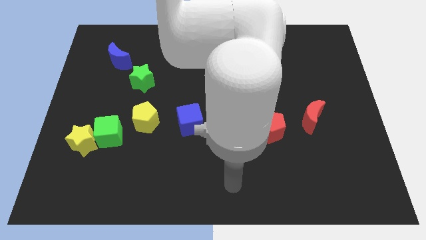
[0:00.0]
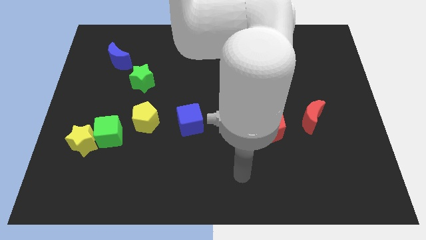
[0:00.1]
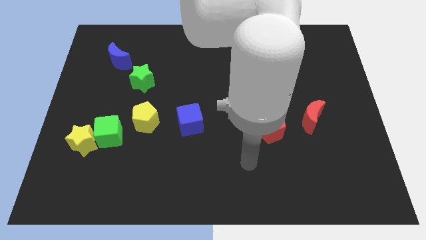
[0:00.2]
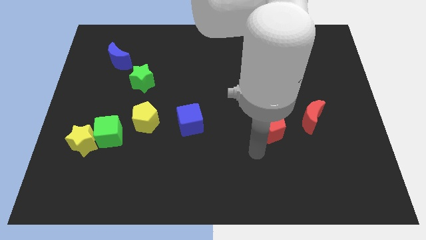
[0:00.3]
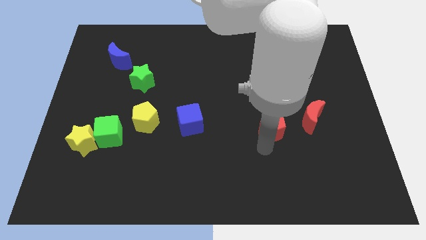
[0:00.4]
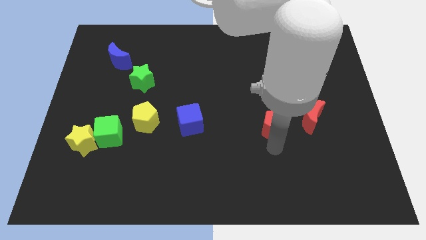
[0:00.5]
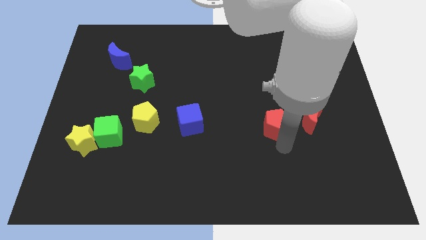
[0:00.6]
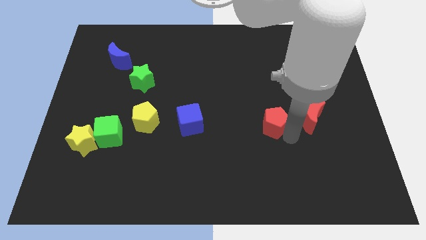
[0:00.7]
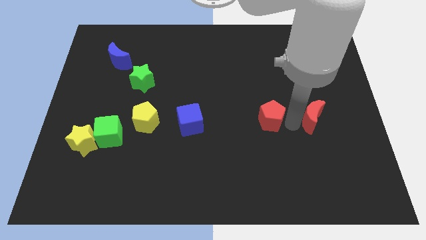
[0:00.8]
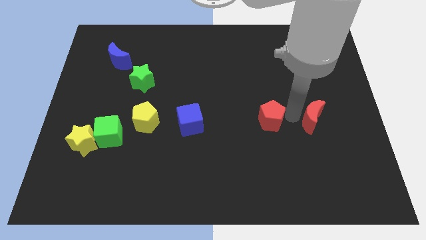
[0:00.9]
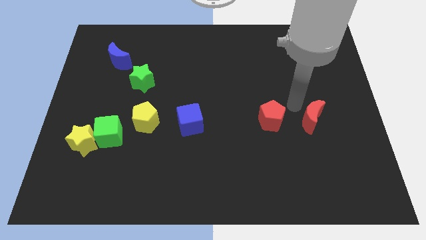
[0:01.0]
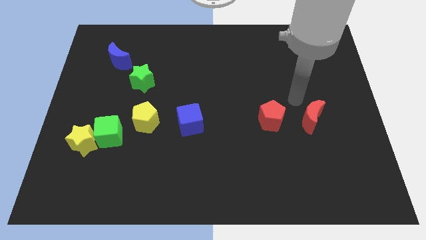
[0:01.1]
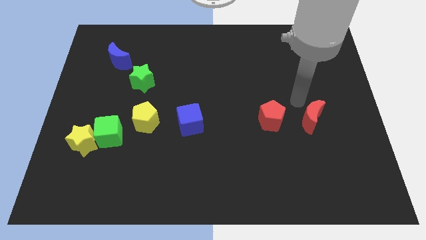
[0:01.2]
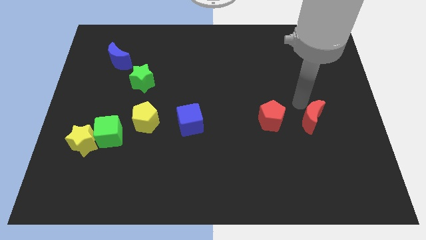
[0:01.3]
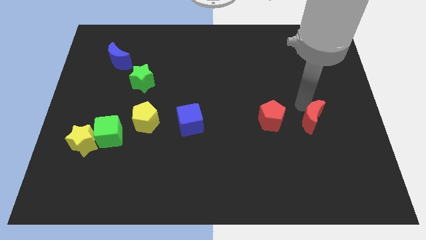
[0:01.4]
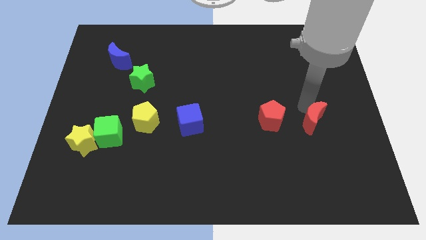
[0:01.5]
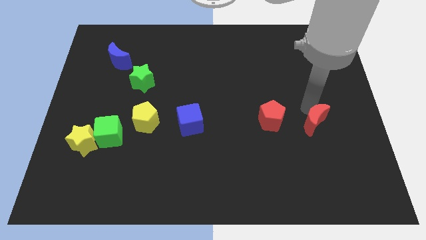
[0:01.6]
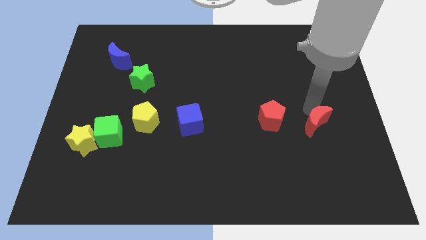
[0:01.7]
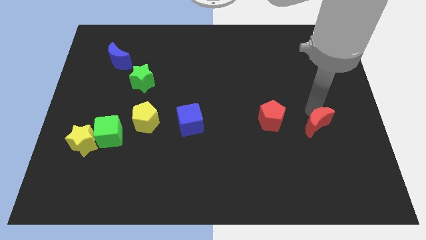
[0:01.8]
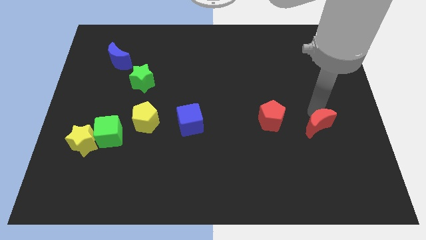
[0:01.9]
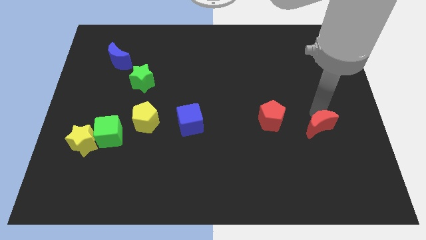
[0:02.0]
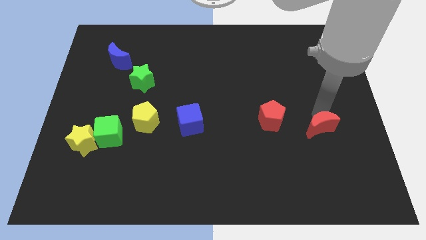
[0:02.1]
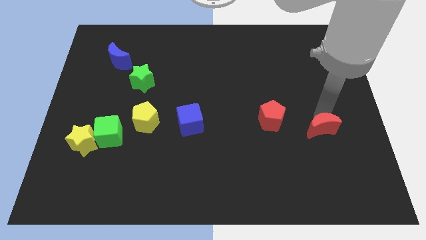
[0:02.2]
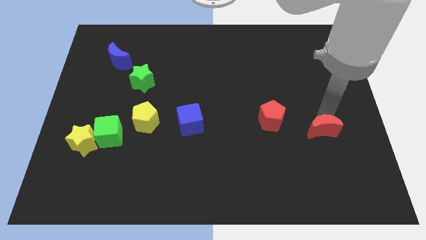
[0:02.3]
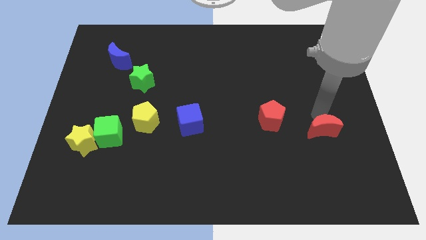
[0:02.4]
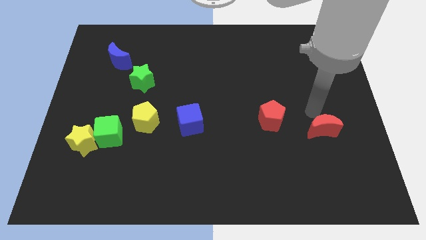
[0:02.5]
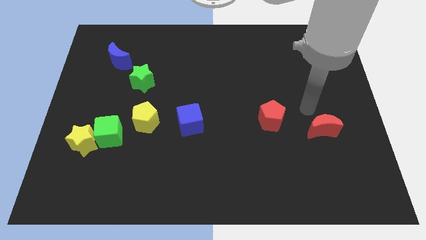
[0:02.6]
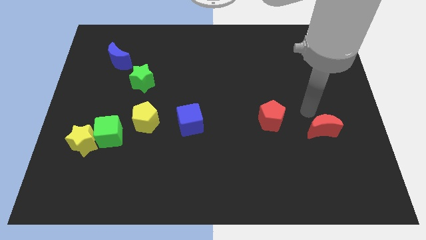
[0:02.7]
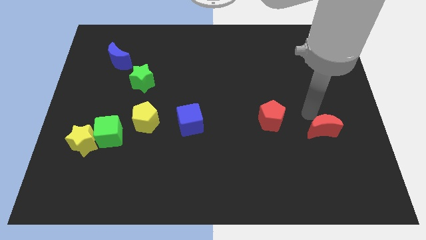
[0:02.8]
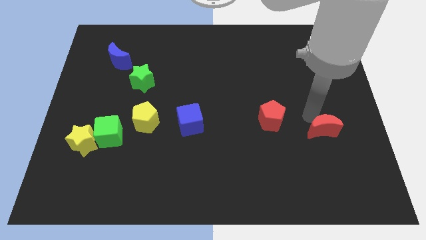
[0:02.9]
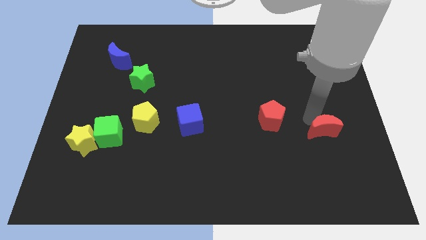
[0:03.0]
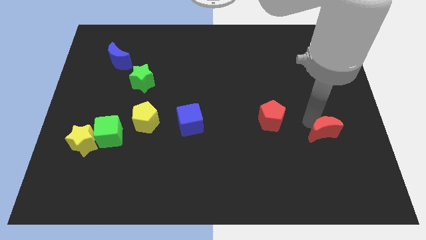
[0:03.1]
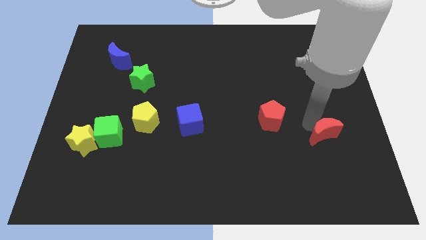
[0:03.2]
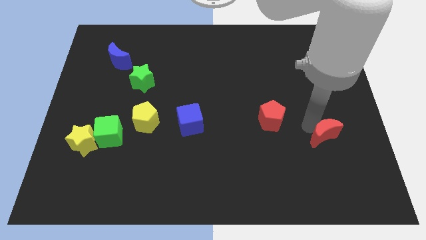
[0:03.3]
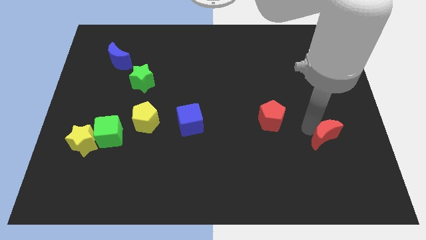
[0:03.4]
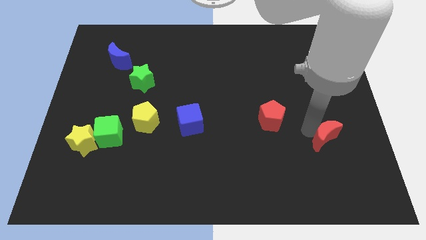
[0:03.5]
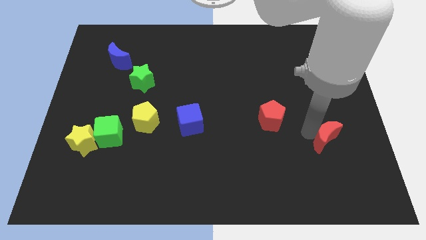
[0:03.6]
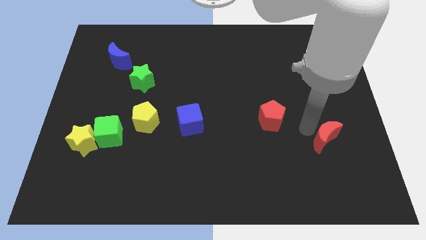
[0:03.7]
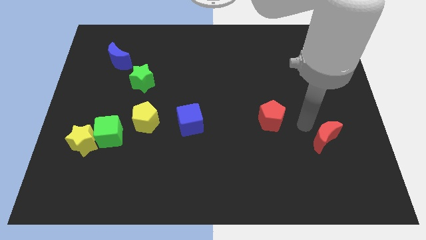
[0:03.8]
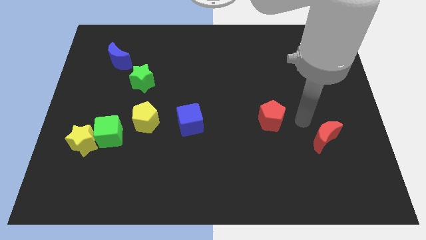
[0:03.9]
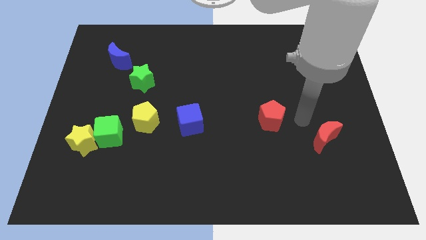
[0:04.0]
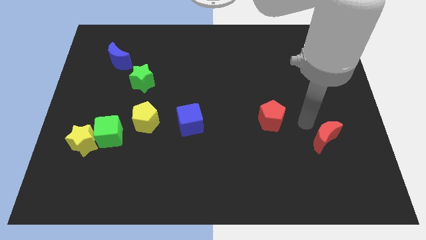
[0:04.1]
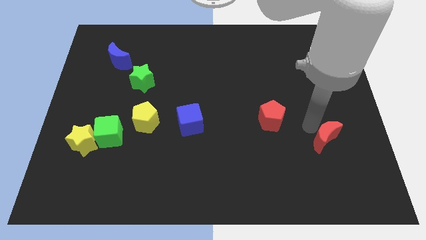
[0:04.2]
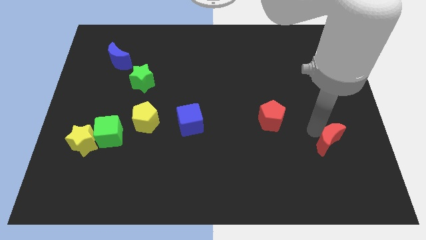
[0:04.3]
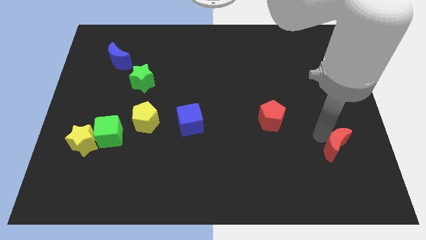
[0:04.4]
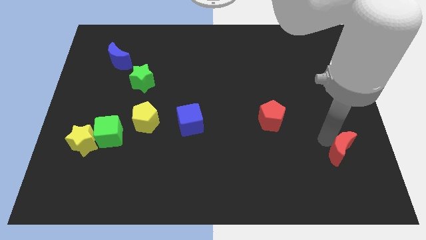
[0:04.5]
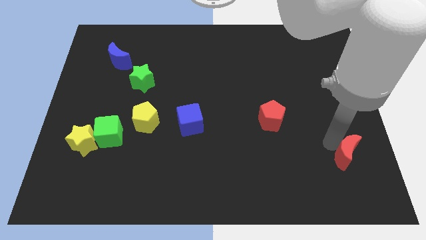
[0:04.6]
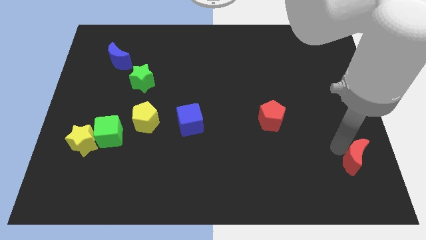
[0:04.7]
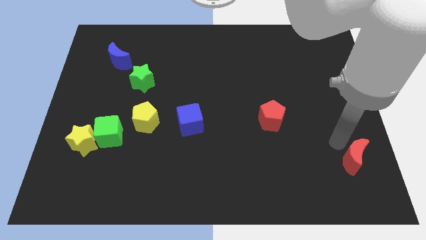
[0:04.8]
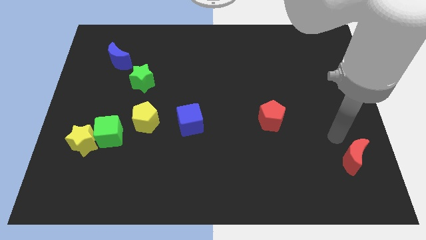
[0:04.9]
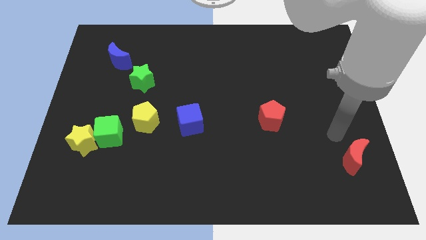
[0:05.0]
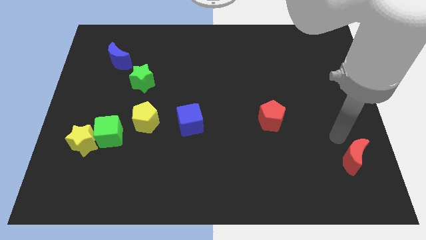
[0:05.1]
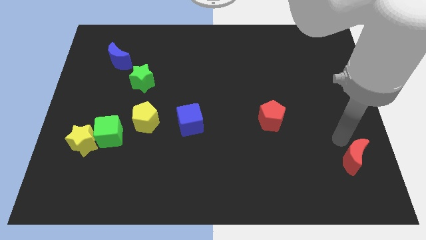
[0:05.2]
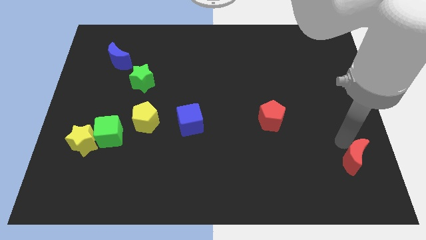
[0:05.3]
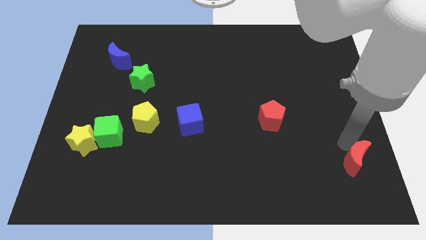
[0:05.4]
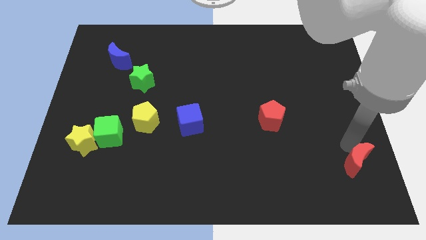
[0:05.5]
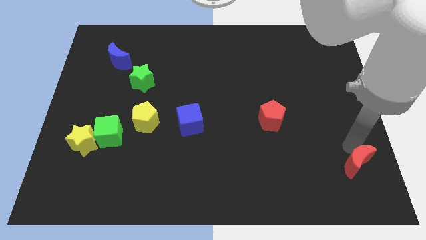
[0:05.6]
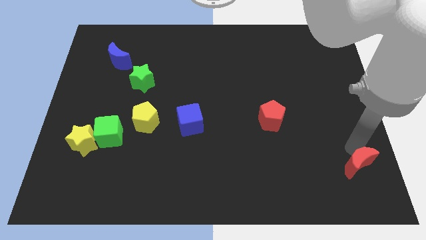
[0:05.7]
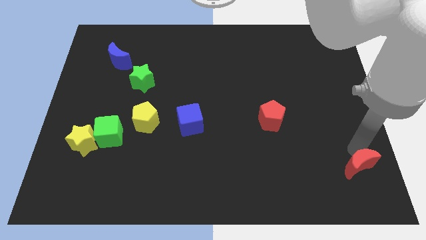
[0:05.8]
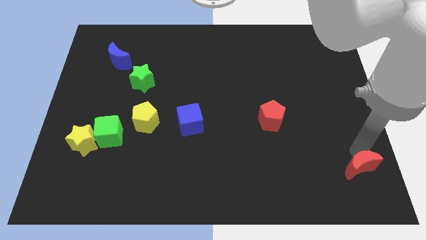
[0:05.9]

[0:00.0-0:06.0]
move the red moon to the bottom right

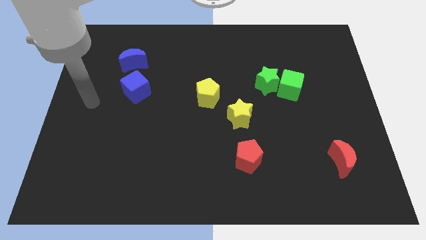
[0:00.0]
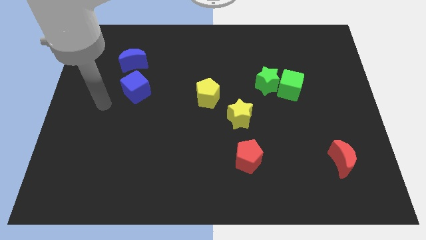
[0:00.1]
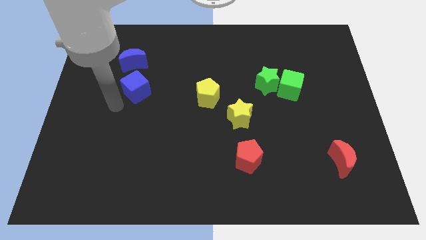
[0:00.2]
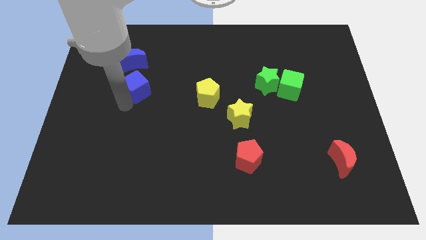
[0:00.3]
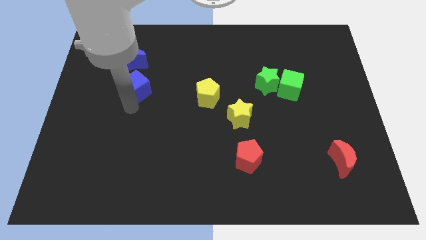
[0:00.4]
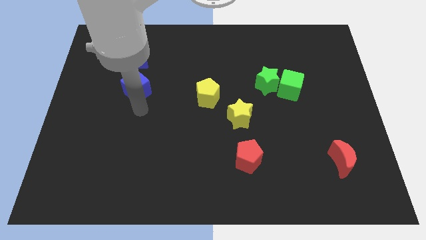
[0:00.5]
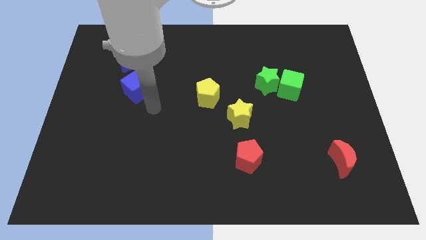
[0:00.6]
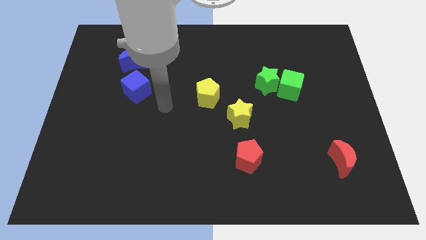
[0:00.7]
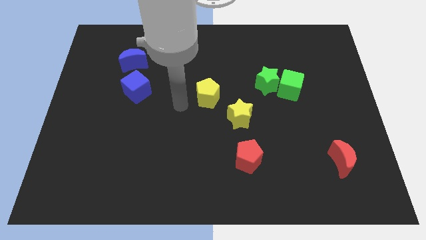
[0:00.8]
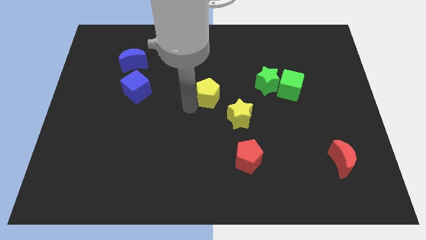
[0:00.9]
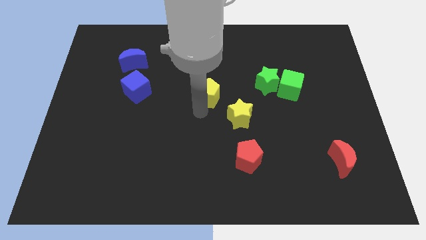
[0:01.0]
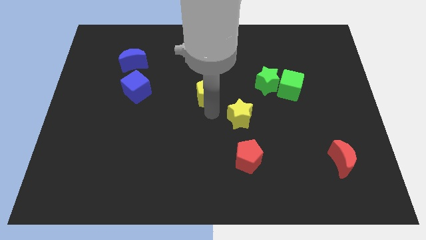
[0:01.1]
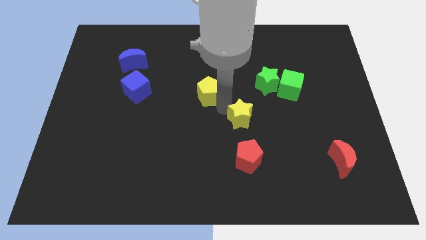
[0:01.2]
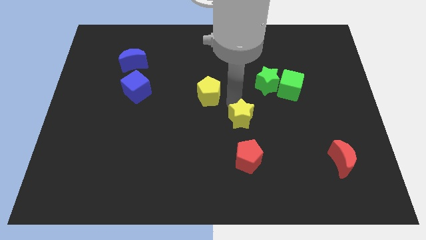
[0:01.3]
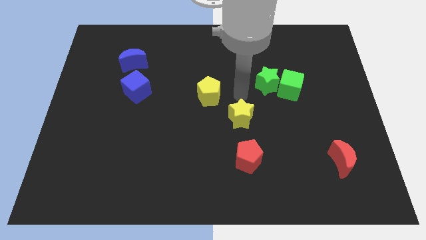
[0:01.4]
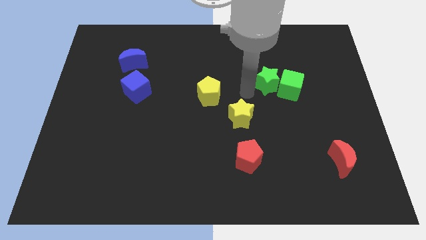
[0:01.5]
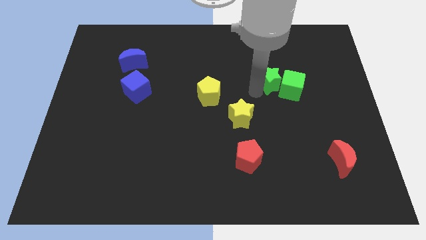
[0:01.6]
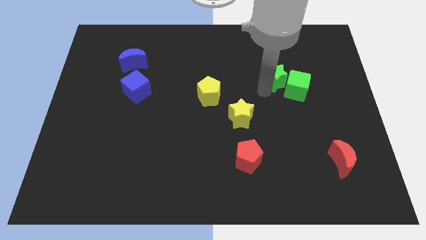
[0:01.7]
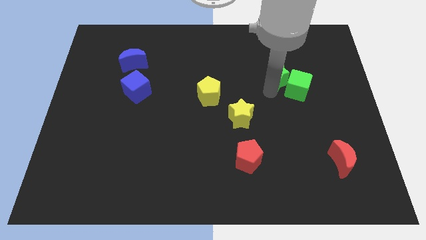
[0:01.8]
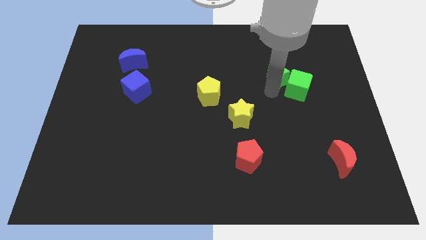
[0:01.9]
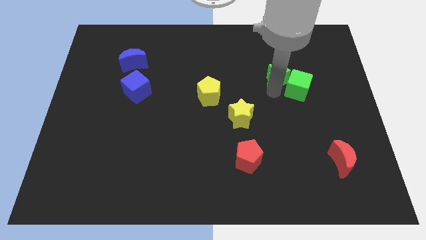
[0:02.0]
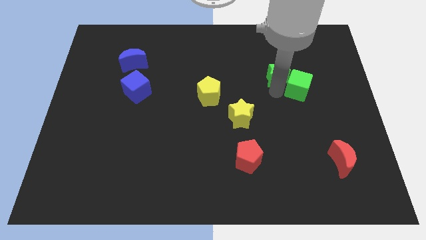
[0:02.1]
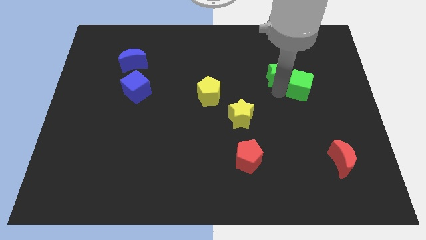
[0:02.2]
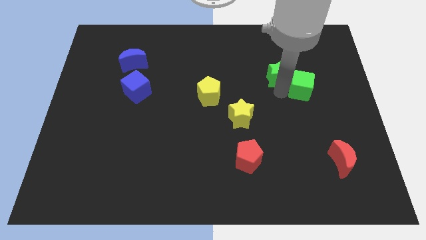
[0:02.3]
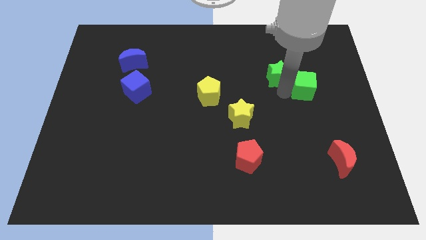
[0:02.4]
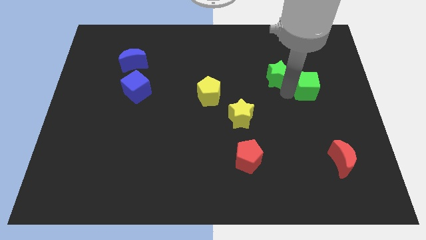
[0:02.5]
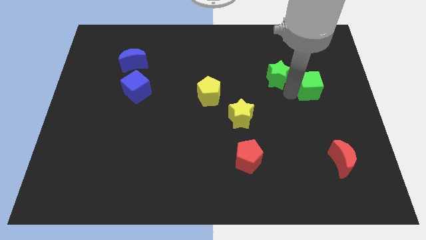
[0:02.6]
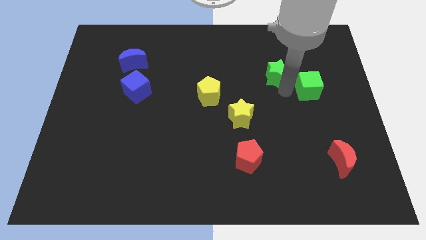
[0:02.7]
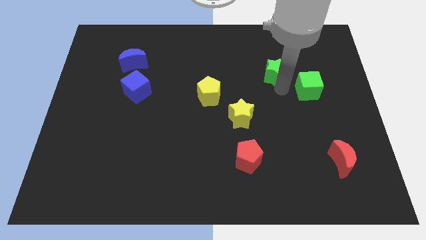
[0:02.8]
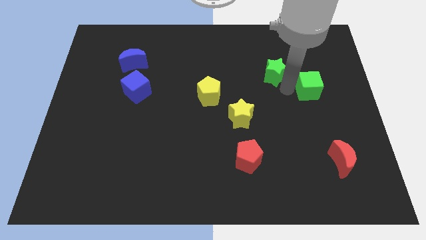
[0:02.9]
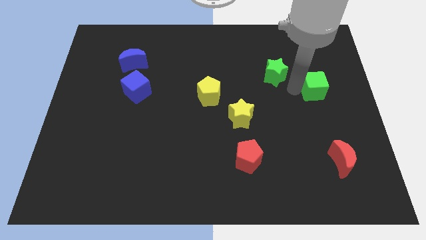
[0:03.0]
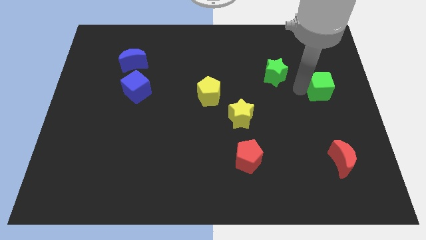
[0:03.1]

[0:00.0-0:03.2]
slide the green cube to the right side
